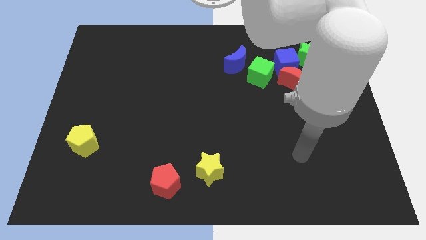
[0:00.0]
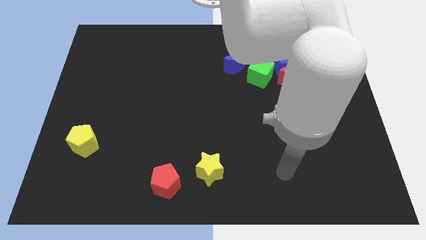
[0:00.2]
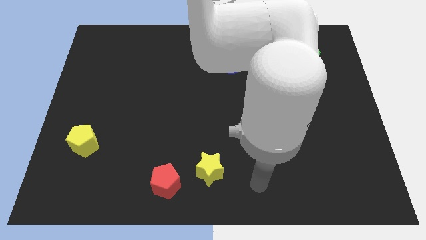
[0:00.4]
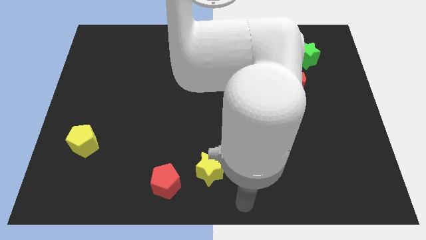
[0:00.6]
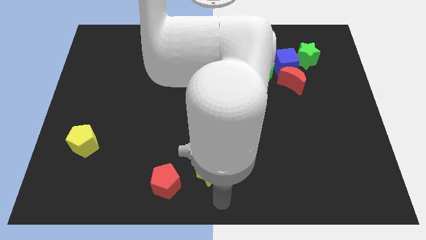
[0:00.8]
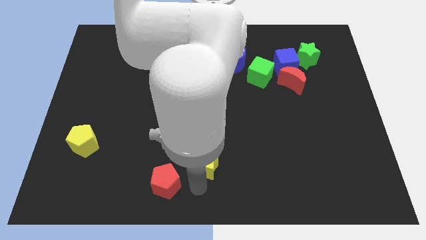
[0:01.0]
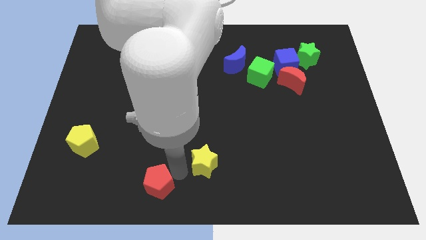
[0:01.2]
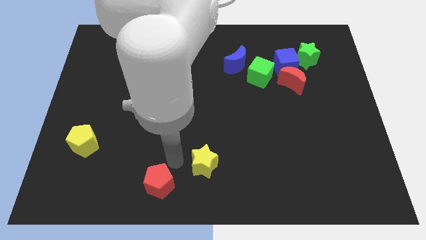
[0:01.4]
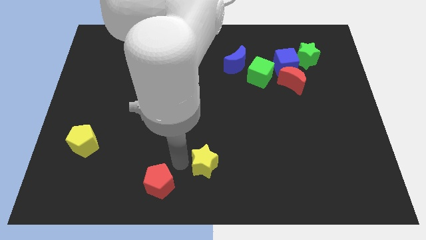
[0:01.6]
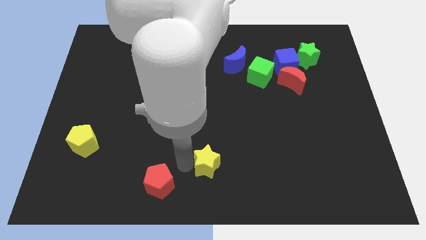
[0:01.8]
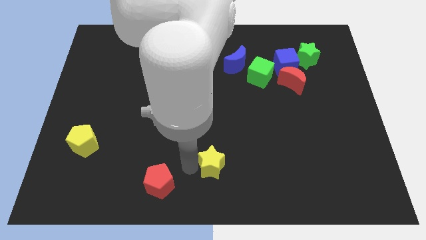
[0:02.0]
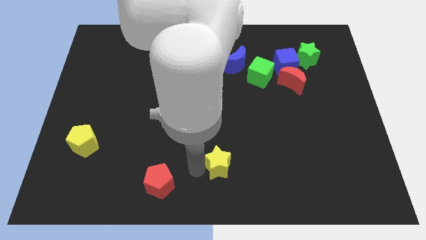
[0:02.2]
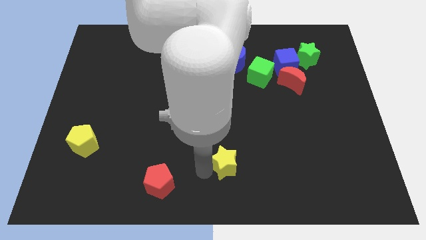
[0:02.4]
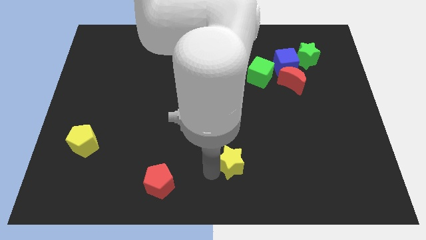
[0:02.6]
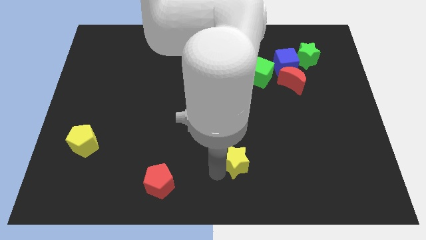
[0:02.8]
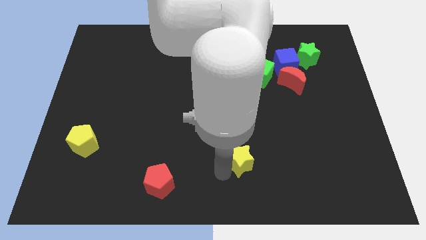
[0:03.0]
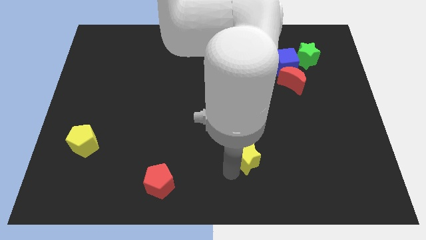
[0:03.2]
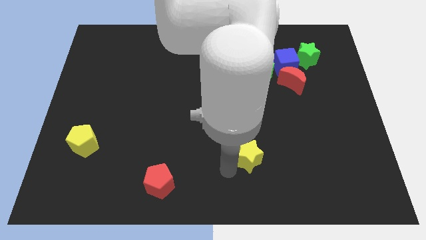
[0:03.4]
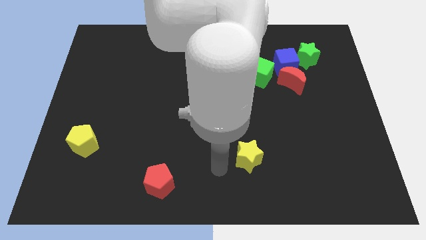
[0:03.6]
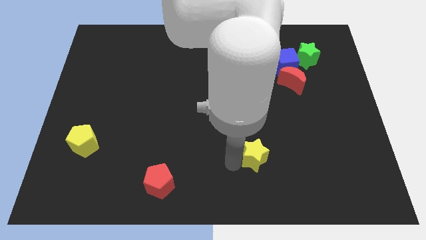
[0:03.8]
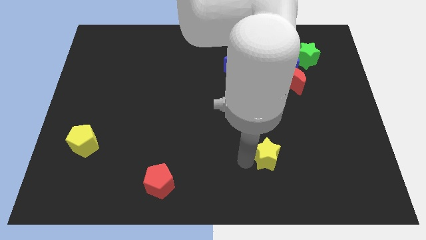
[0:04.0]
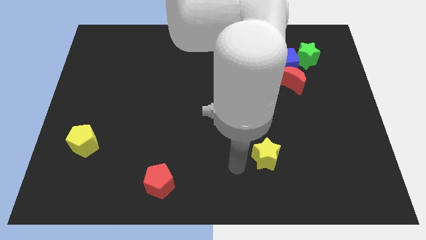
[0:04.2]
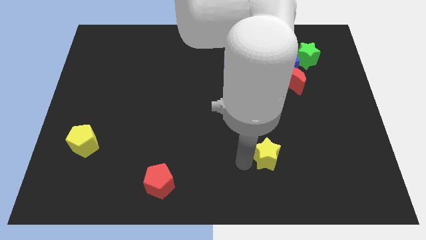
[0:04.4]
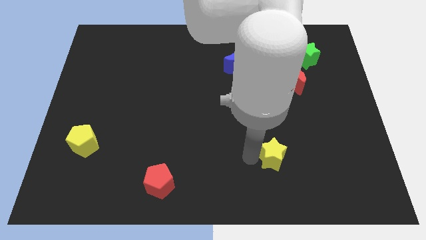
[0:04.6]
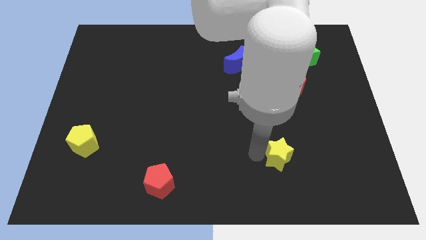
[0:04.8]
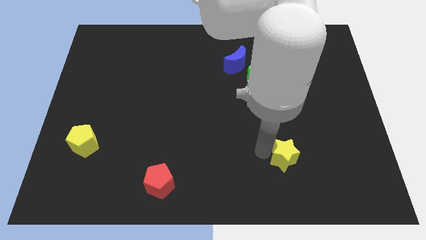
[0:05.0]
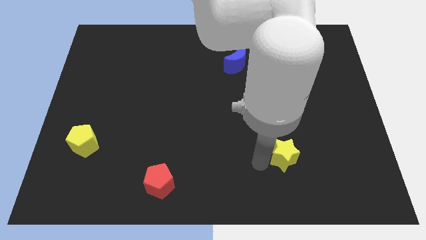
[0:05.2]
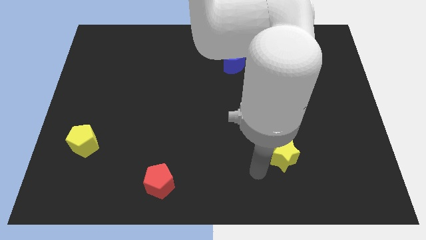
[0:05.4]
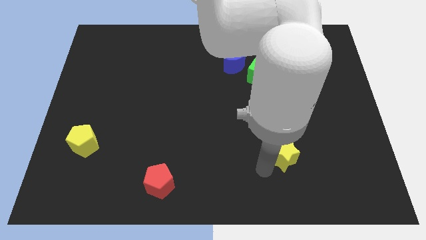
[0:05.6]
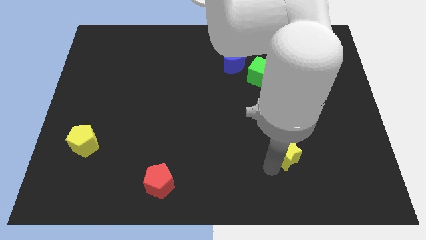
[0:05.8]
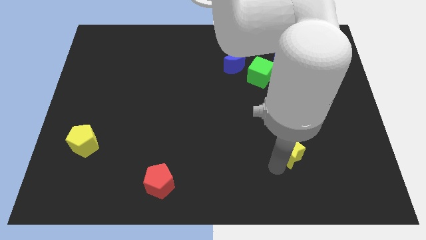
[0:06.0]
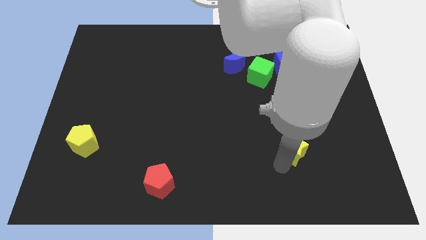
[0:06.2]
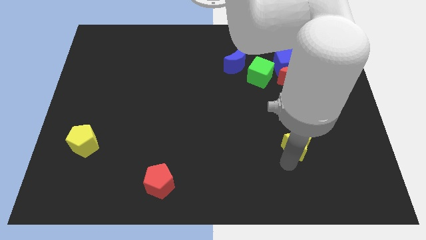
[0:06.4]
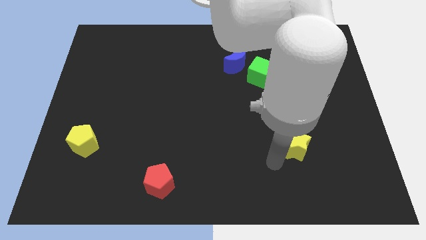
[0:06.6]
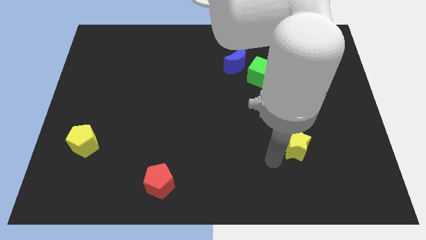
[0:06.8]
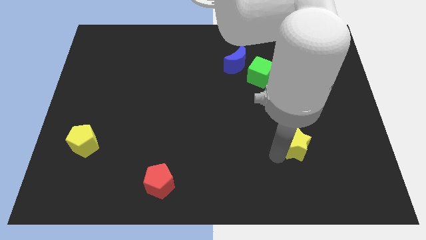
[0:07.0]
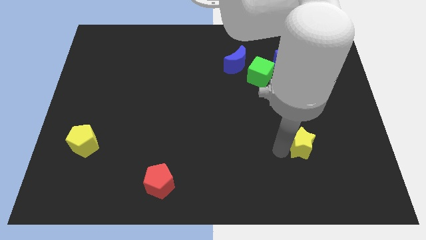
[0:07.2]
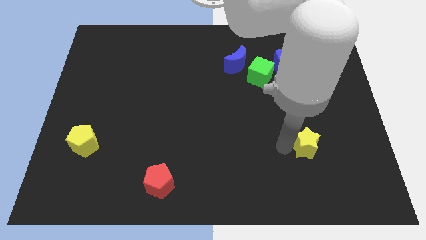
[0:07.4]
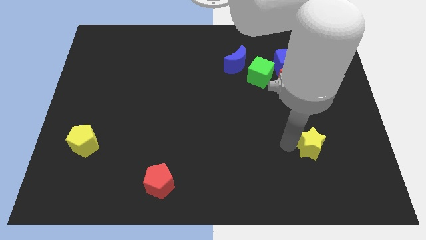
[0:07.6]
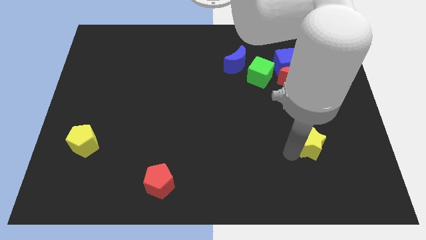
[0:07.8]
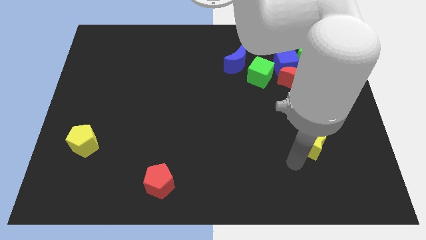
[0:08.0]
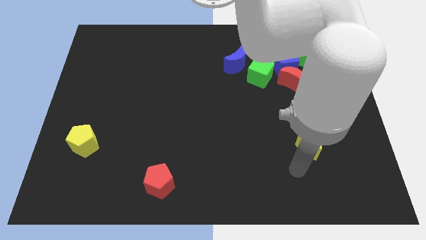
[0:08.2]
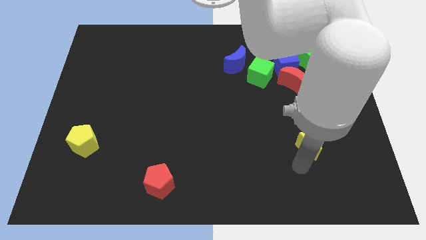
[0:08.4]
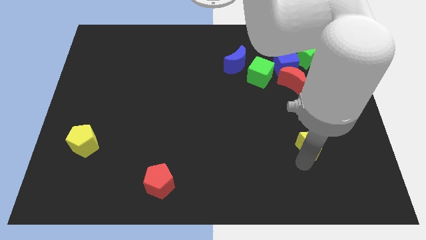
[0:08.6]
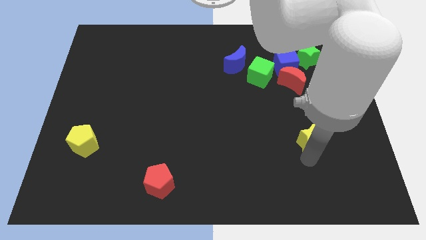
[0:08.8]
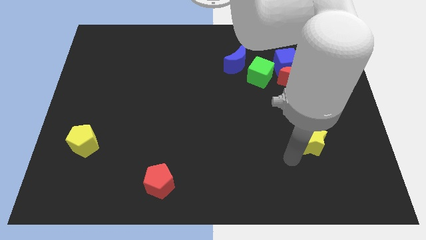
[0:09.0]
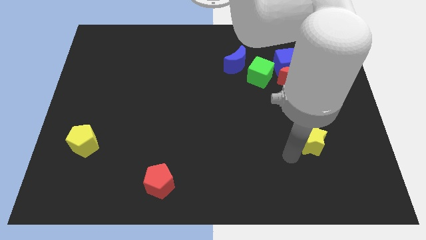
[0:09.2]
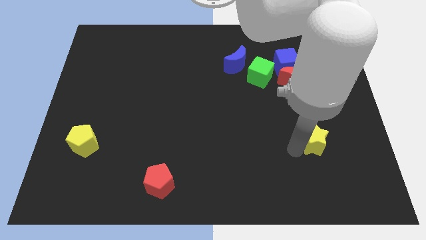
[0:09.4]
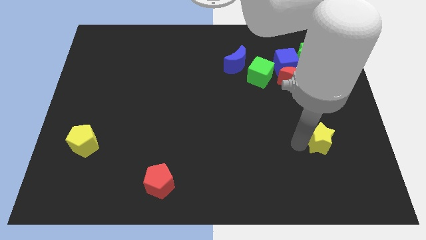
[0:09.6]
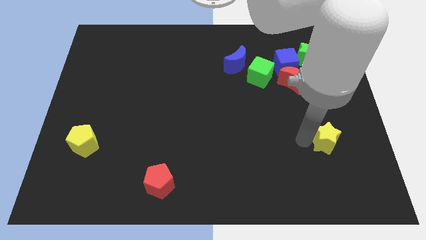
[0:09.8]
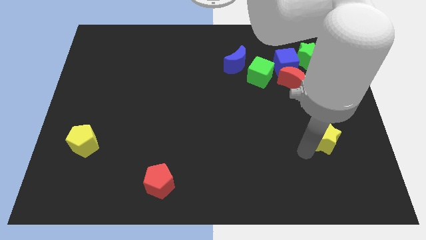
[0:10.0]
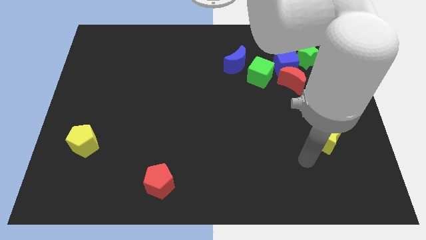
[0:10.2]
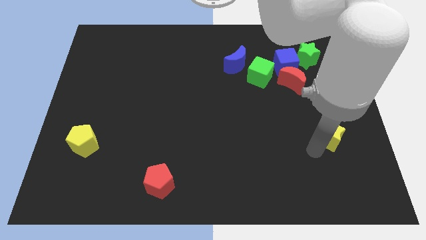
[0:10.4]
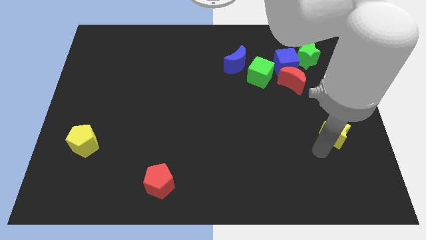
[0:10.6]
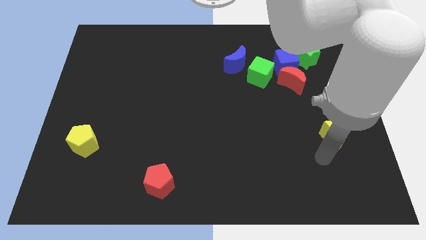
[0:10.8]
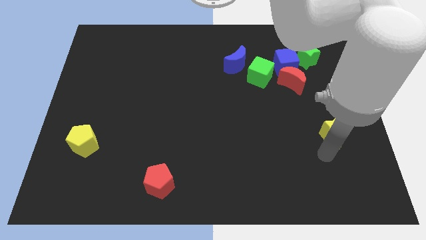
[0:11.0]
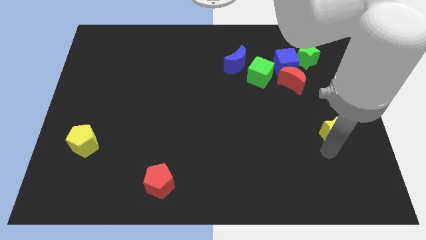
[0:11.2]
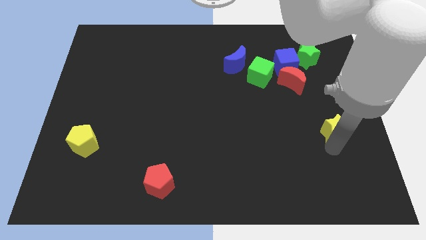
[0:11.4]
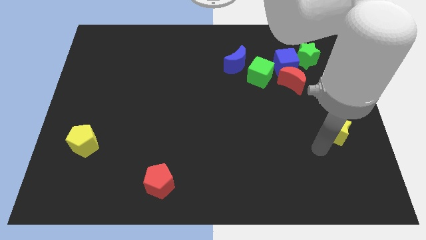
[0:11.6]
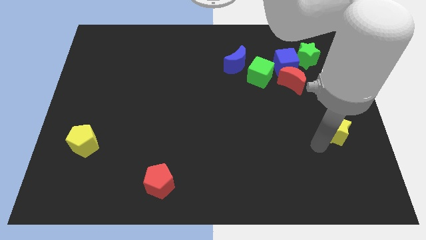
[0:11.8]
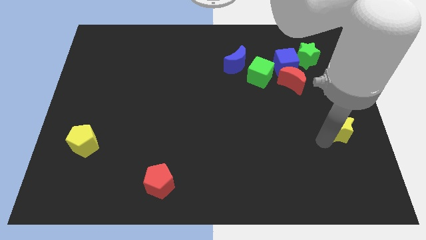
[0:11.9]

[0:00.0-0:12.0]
move the yellow star to the right side

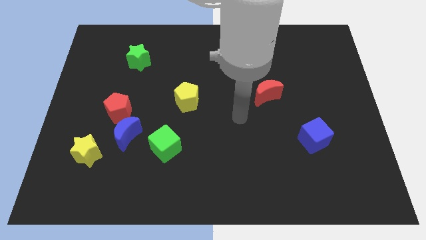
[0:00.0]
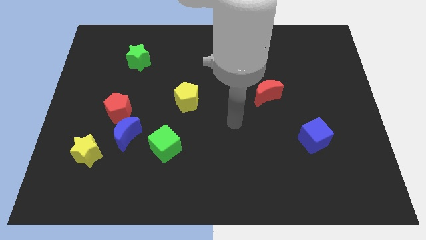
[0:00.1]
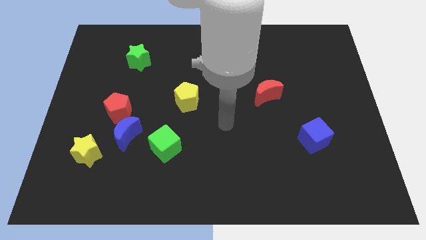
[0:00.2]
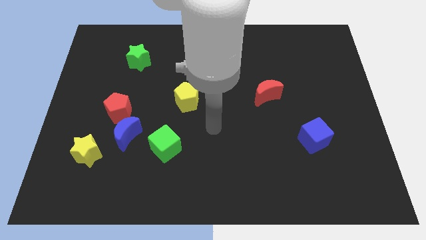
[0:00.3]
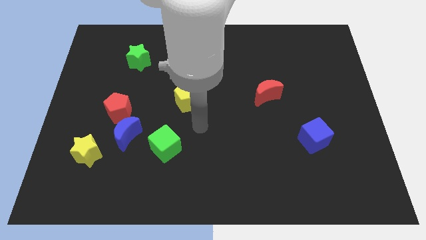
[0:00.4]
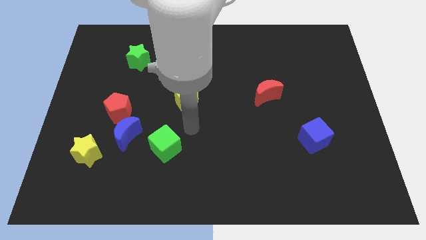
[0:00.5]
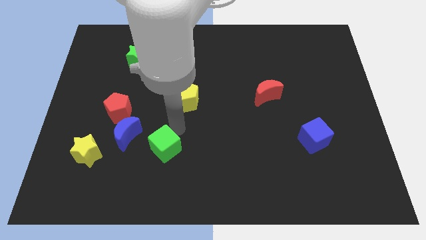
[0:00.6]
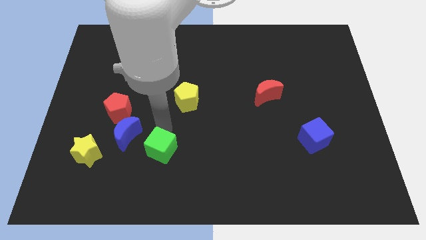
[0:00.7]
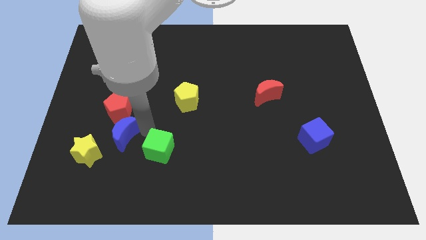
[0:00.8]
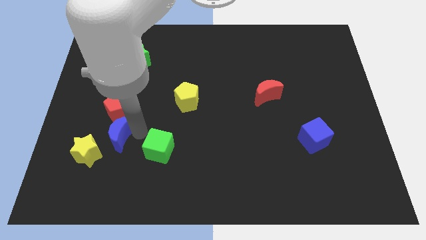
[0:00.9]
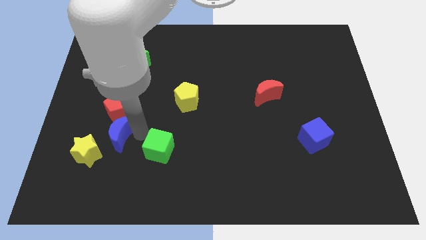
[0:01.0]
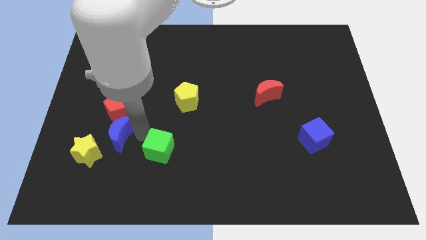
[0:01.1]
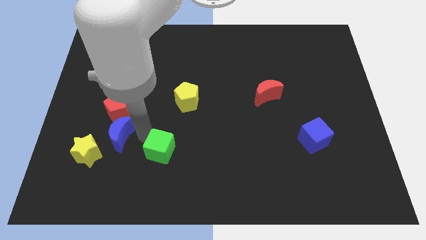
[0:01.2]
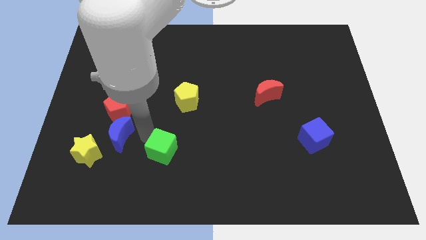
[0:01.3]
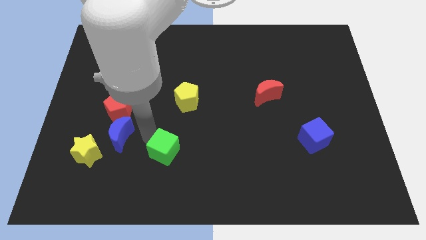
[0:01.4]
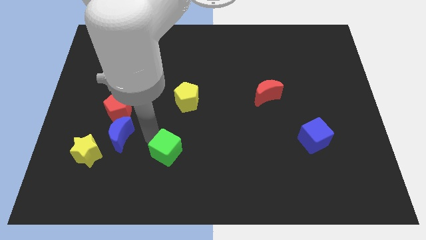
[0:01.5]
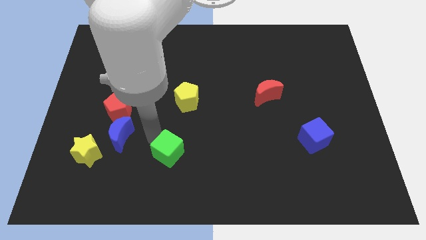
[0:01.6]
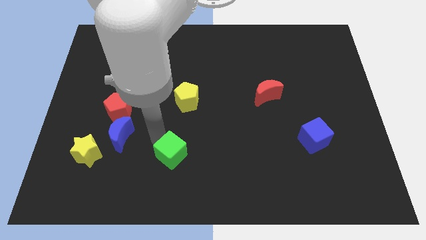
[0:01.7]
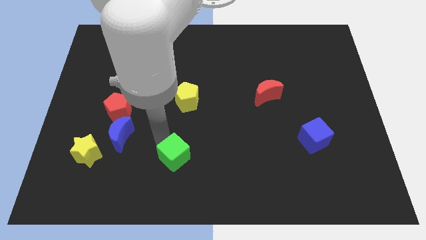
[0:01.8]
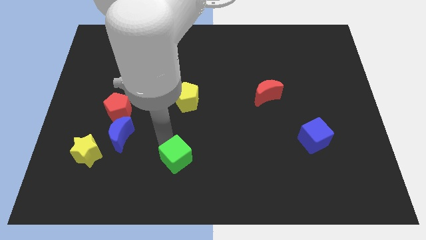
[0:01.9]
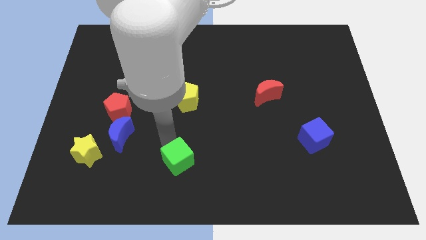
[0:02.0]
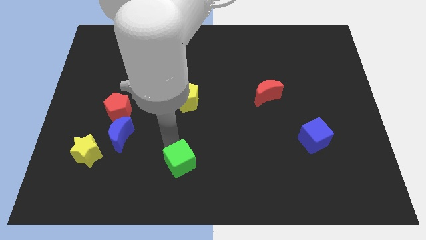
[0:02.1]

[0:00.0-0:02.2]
slide the green cube to the bottom
